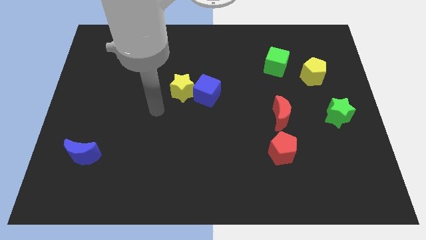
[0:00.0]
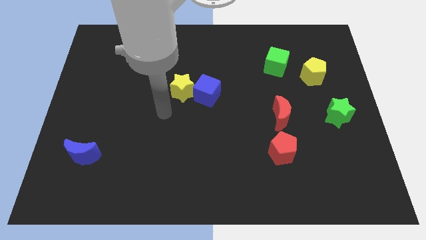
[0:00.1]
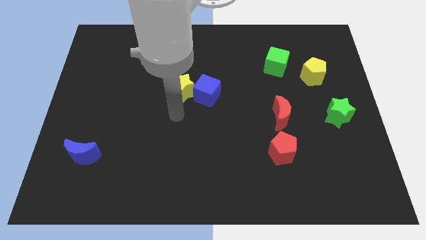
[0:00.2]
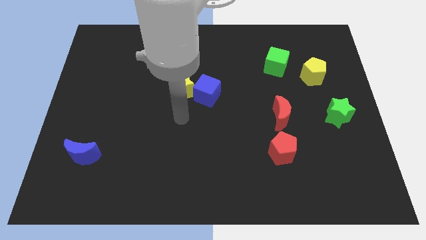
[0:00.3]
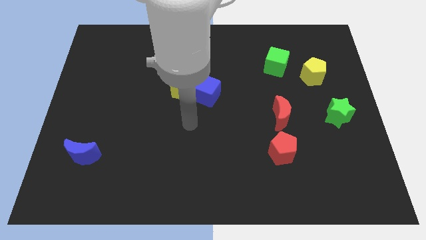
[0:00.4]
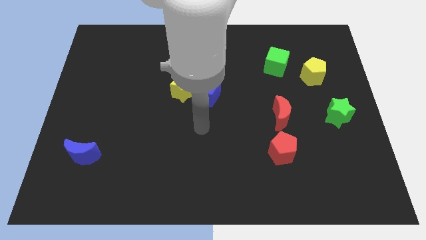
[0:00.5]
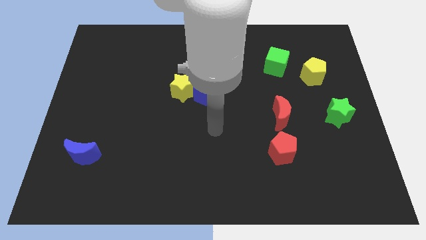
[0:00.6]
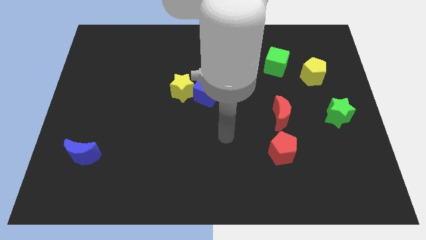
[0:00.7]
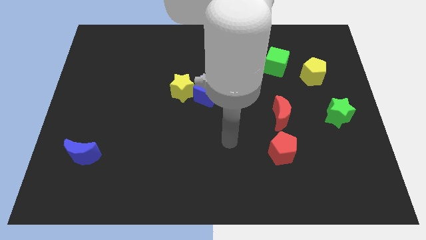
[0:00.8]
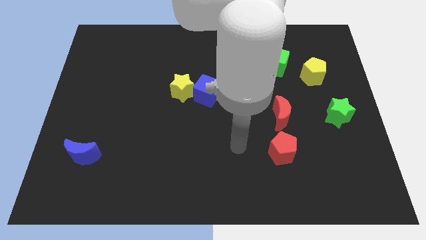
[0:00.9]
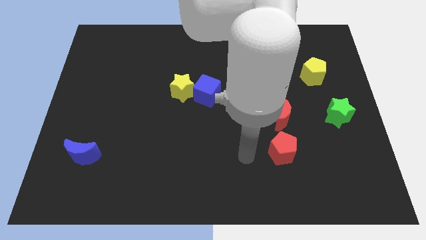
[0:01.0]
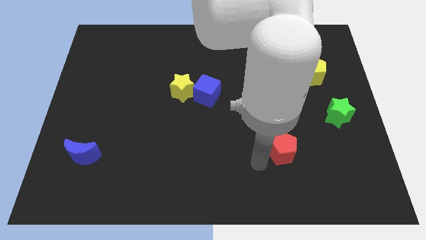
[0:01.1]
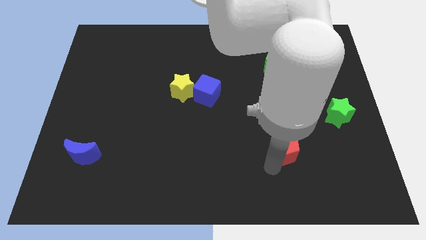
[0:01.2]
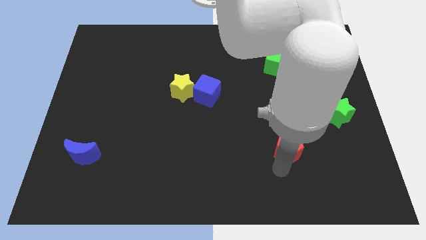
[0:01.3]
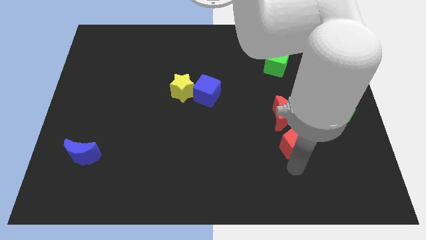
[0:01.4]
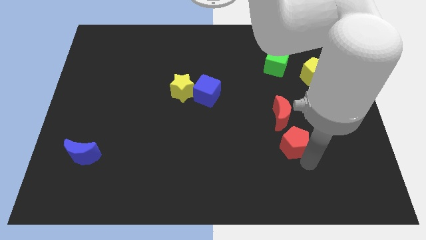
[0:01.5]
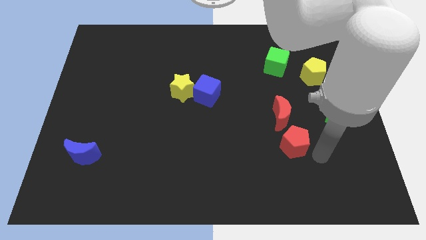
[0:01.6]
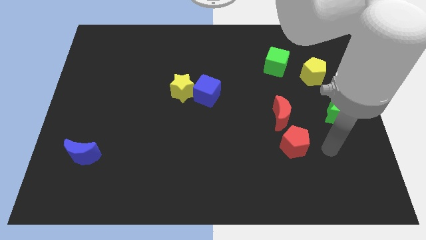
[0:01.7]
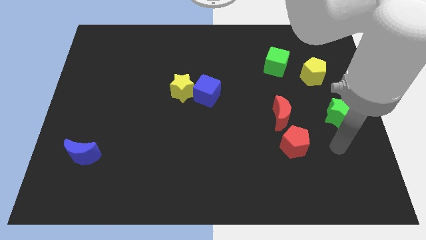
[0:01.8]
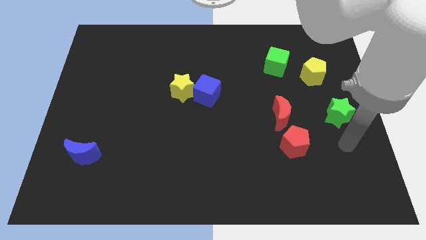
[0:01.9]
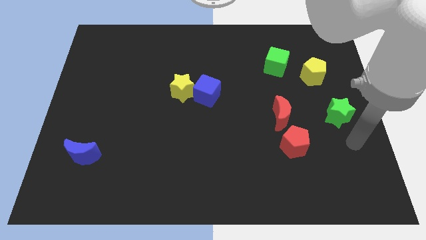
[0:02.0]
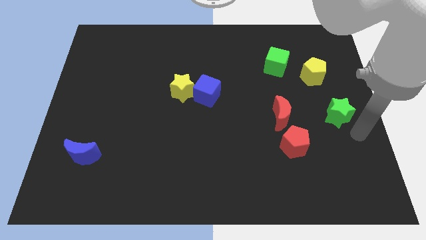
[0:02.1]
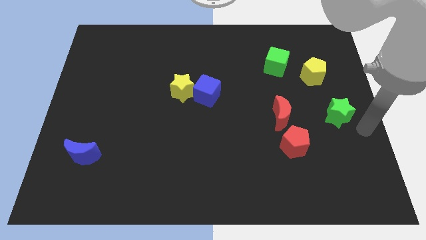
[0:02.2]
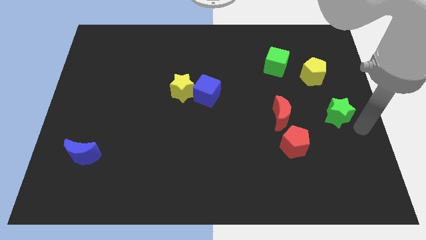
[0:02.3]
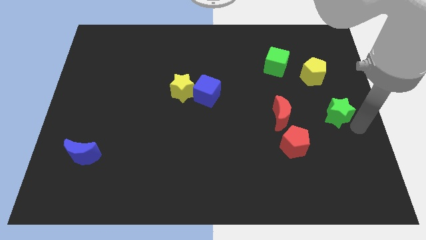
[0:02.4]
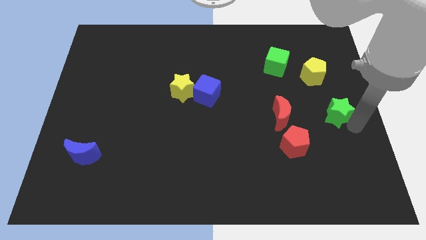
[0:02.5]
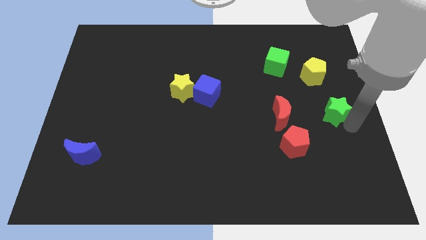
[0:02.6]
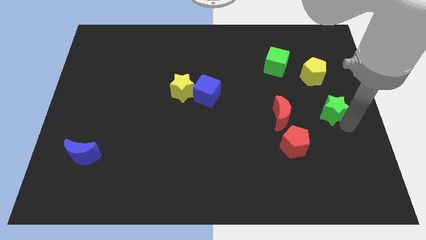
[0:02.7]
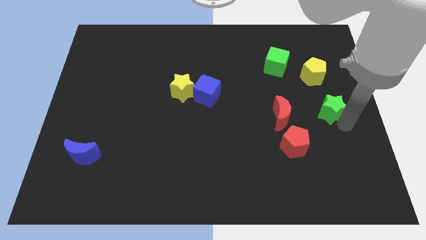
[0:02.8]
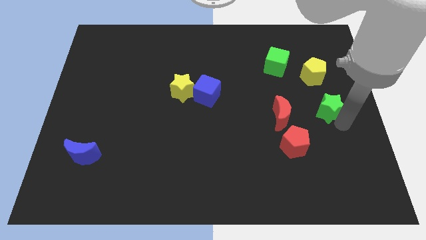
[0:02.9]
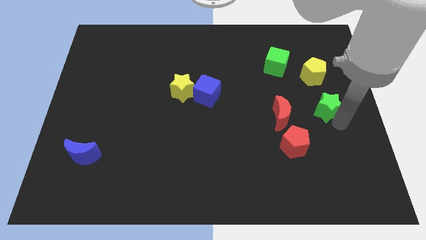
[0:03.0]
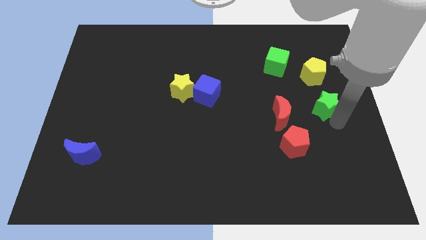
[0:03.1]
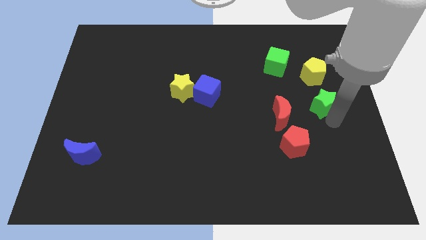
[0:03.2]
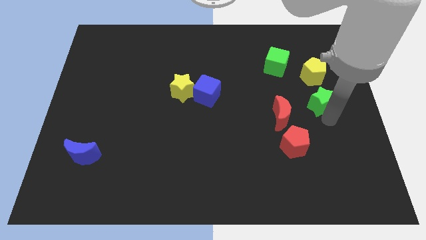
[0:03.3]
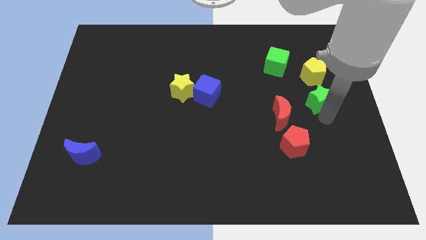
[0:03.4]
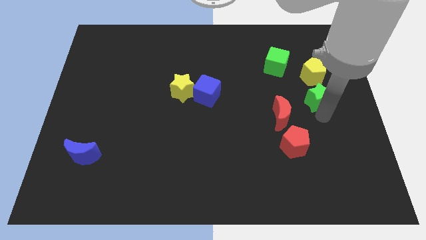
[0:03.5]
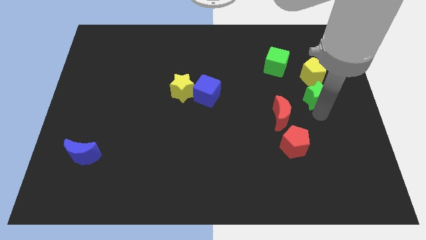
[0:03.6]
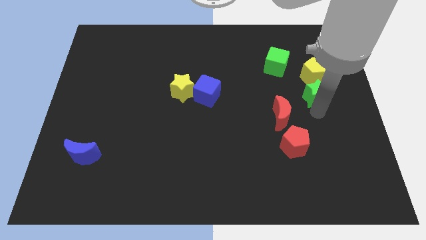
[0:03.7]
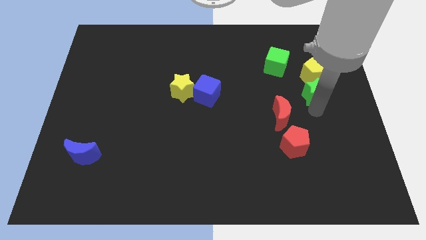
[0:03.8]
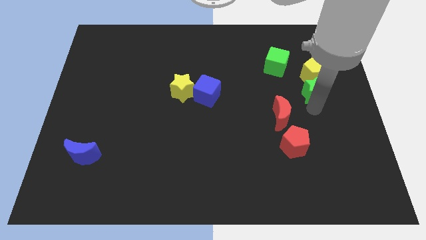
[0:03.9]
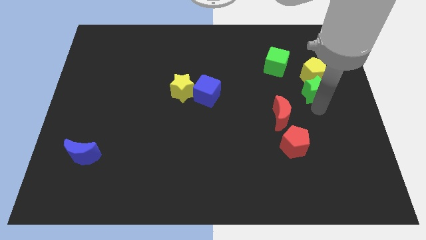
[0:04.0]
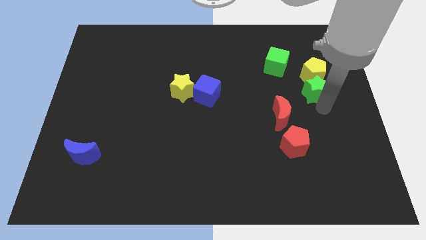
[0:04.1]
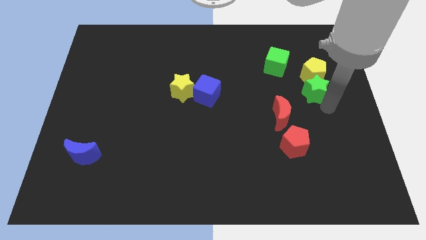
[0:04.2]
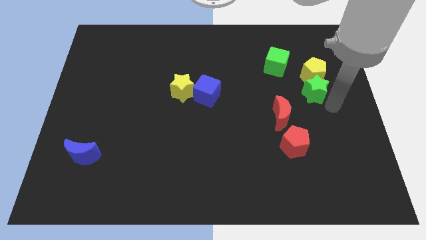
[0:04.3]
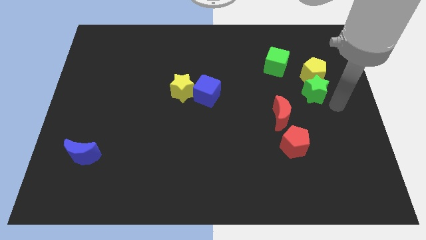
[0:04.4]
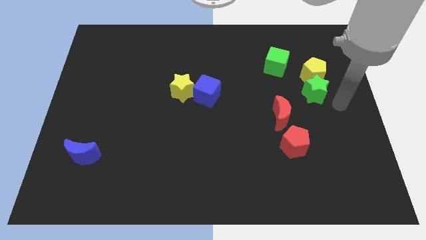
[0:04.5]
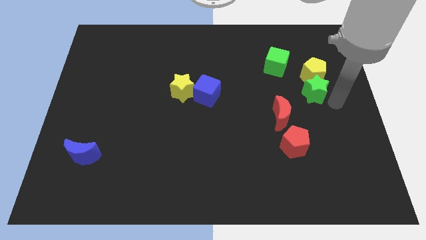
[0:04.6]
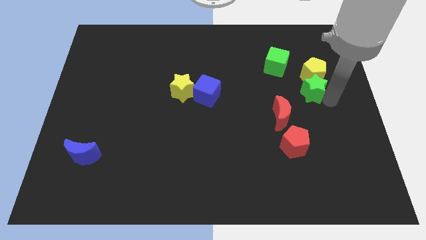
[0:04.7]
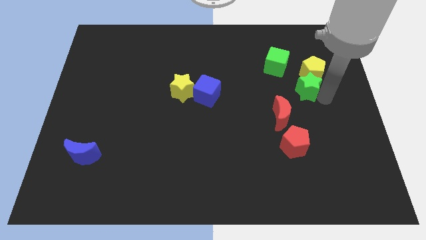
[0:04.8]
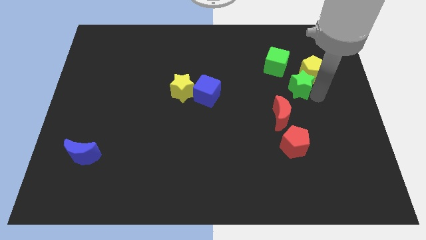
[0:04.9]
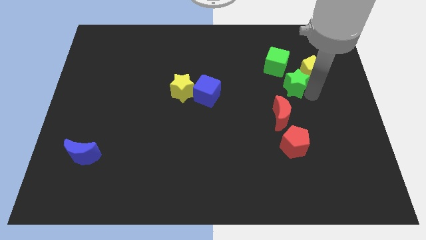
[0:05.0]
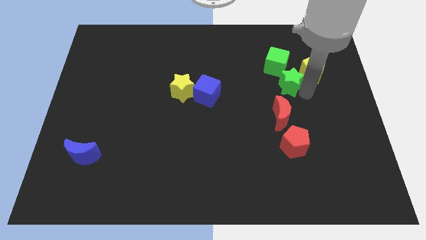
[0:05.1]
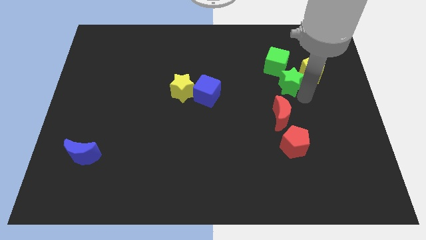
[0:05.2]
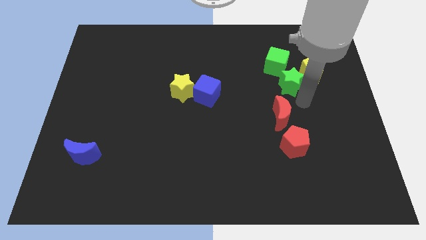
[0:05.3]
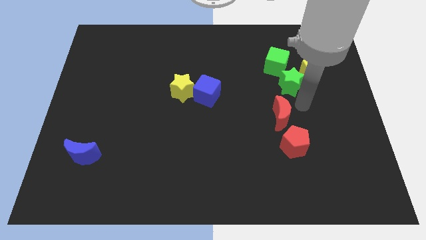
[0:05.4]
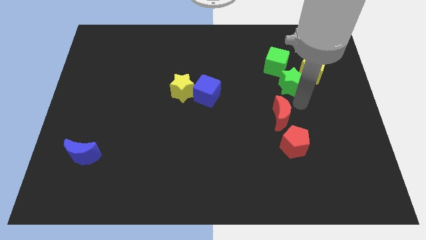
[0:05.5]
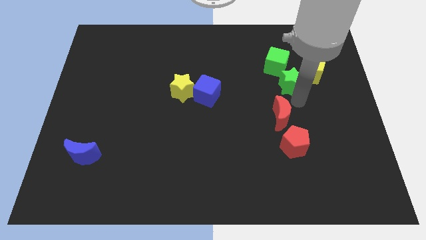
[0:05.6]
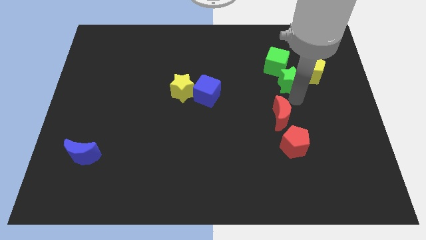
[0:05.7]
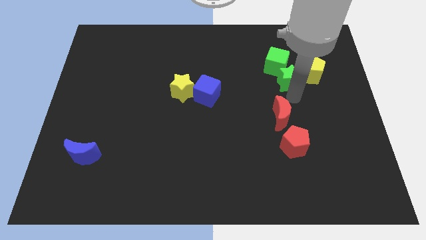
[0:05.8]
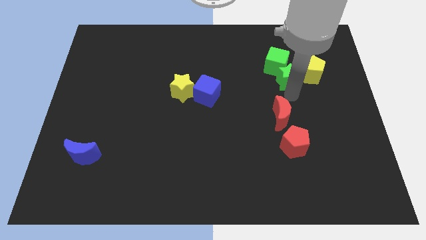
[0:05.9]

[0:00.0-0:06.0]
slide the green star towards the green cube
